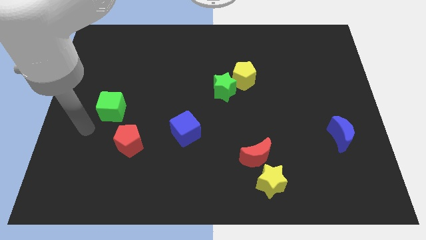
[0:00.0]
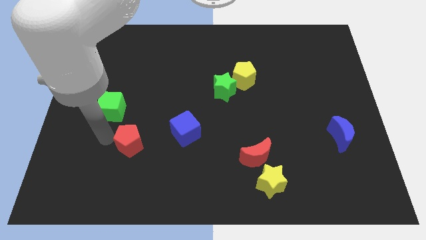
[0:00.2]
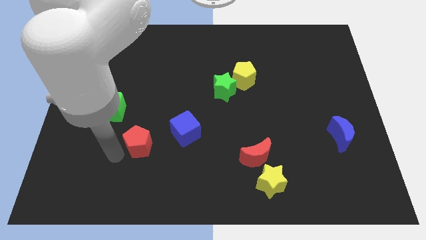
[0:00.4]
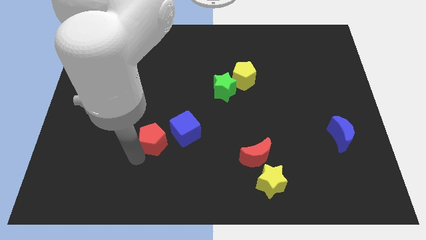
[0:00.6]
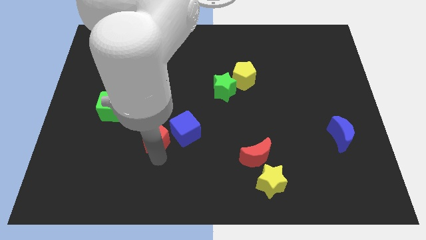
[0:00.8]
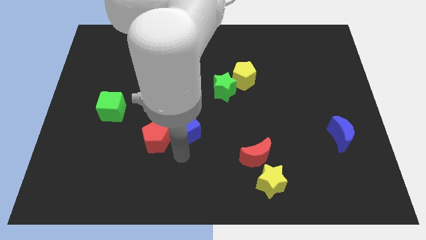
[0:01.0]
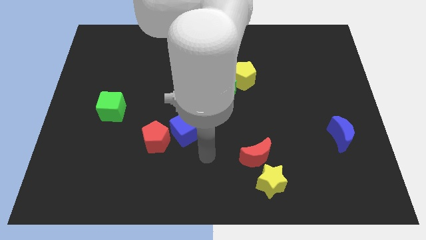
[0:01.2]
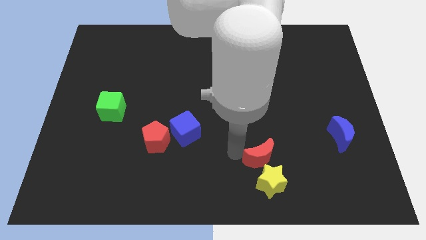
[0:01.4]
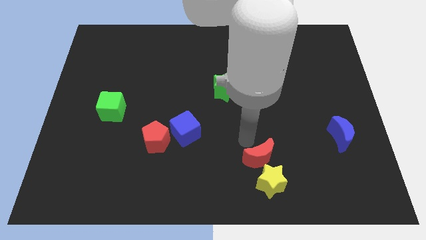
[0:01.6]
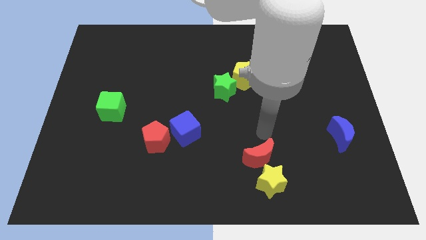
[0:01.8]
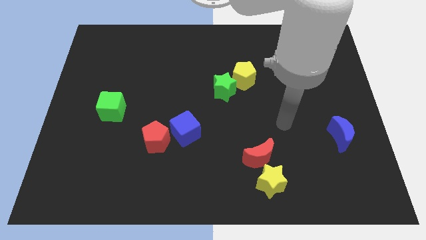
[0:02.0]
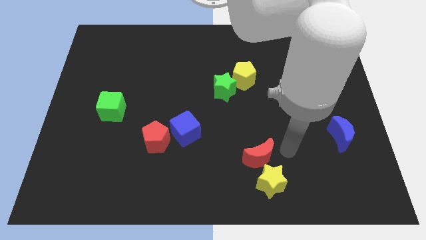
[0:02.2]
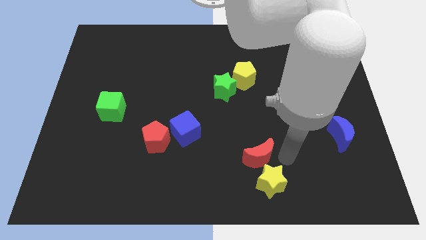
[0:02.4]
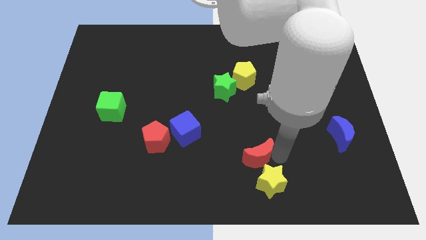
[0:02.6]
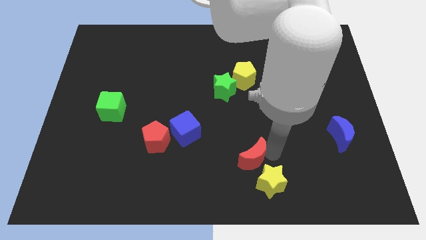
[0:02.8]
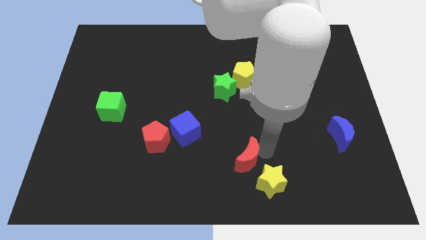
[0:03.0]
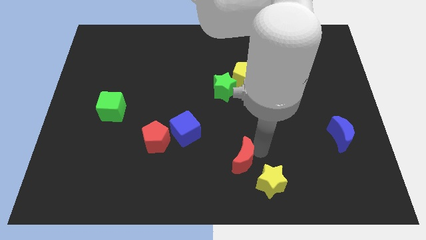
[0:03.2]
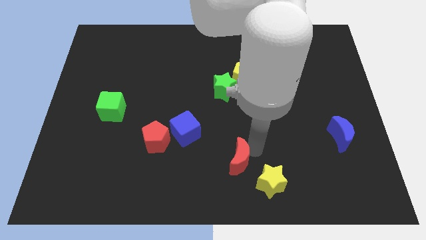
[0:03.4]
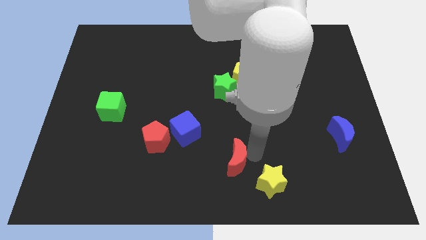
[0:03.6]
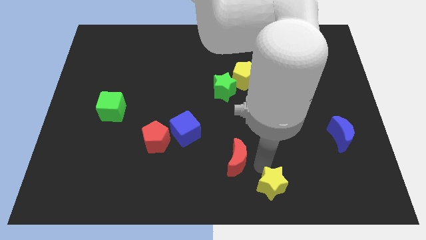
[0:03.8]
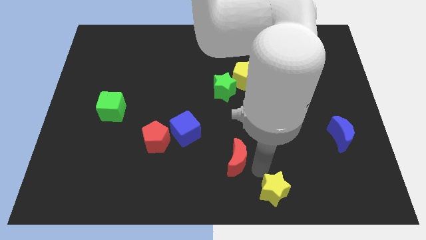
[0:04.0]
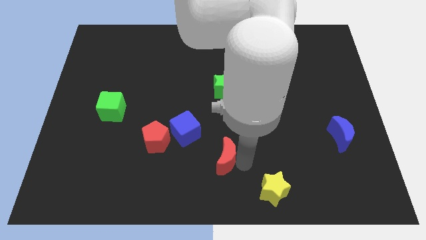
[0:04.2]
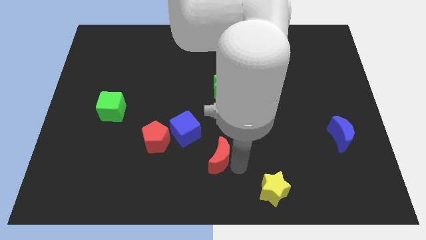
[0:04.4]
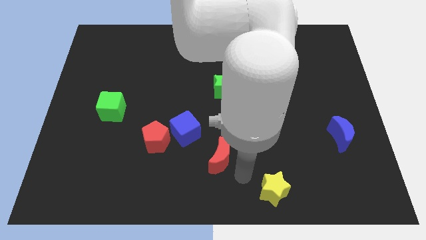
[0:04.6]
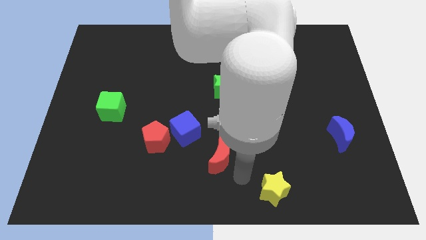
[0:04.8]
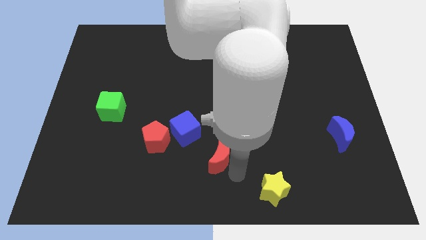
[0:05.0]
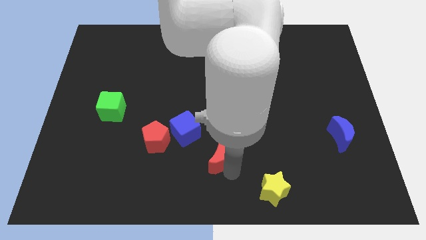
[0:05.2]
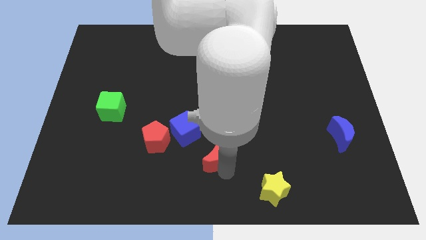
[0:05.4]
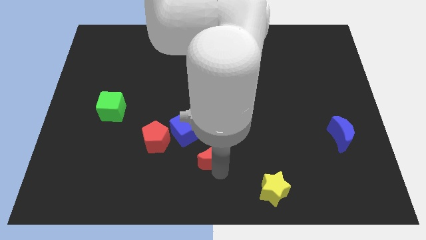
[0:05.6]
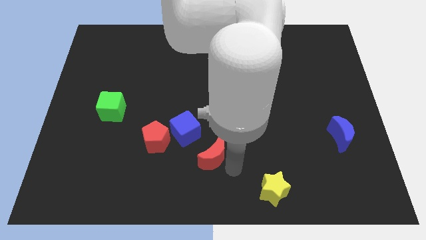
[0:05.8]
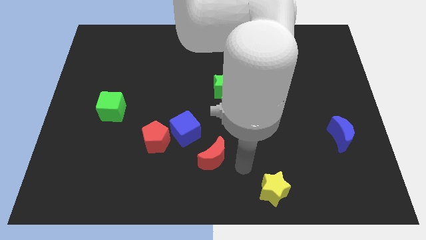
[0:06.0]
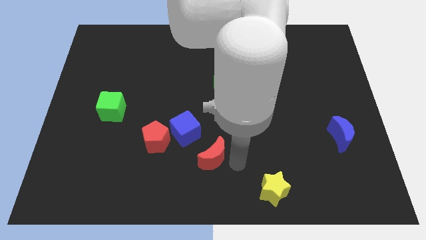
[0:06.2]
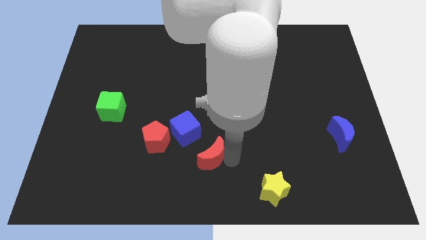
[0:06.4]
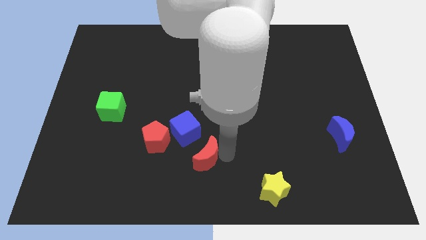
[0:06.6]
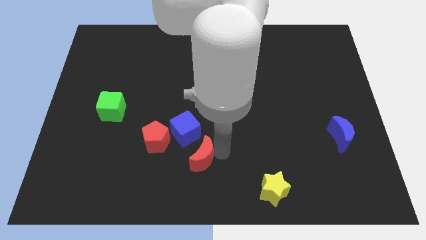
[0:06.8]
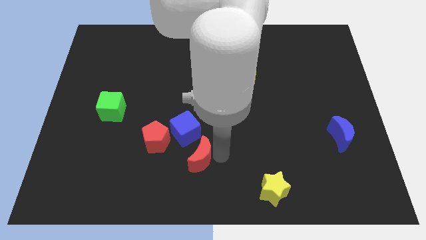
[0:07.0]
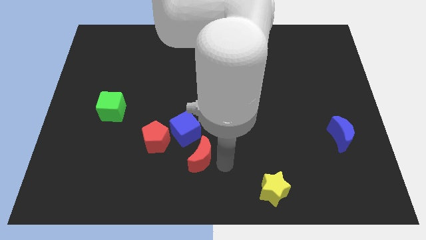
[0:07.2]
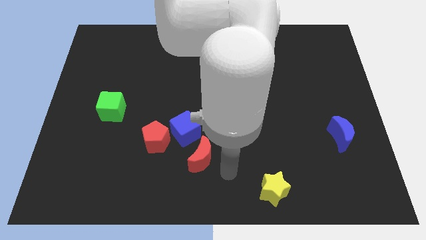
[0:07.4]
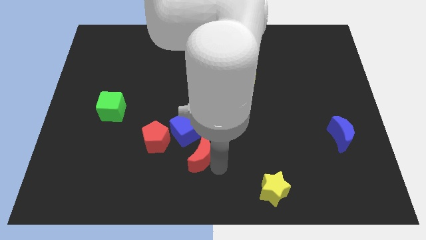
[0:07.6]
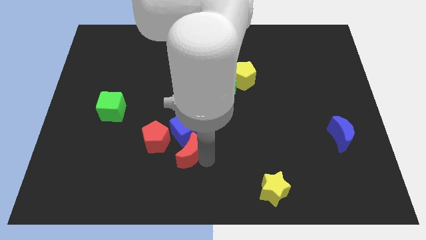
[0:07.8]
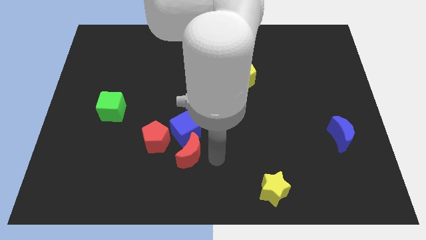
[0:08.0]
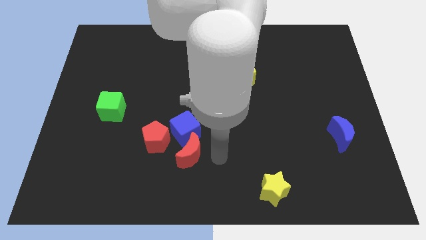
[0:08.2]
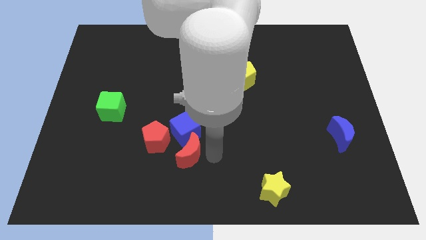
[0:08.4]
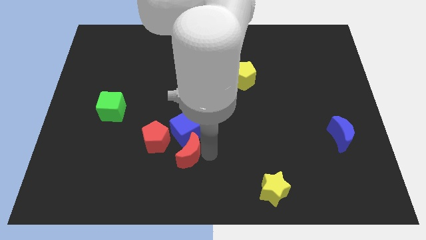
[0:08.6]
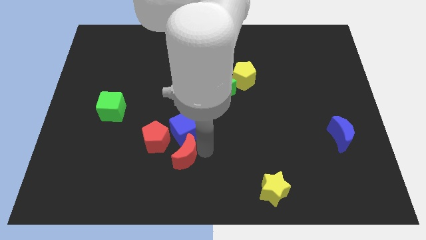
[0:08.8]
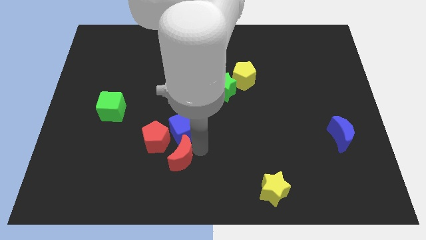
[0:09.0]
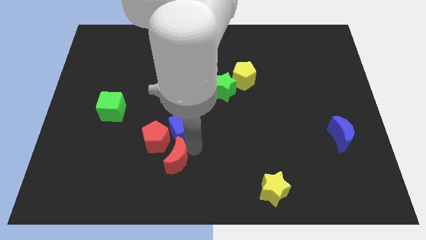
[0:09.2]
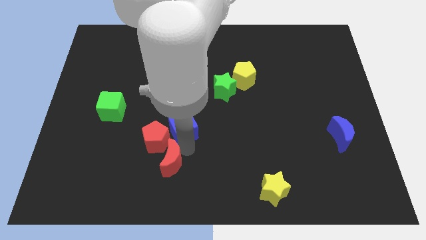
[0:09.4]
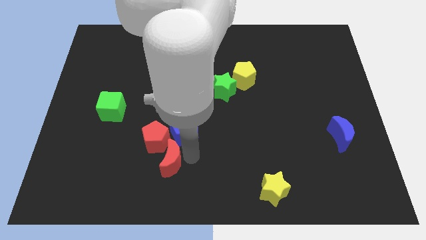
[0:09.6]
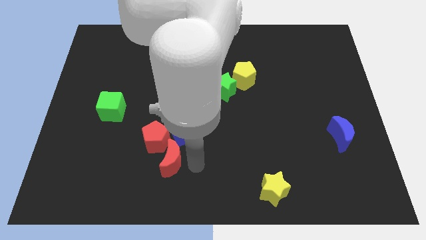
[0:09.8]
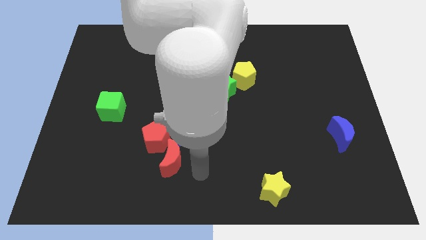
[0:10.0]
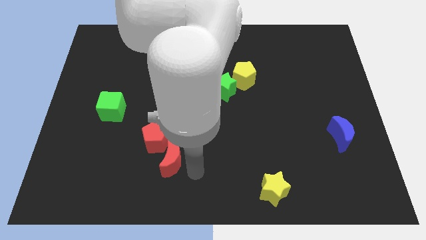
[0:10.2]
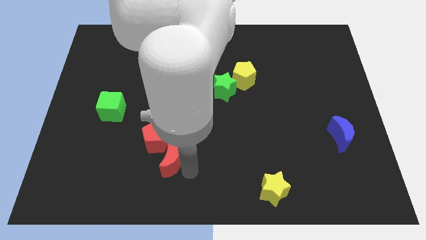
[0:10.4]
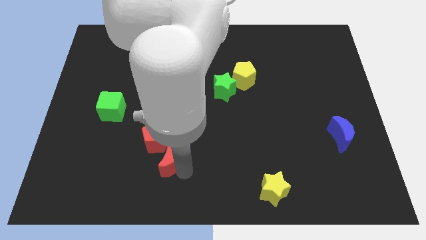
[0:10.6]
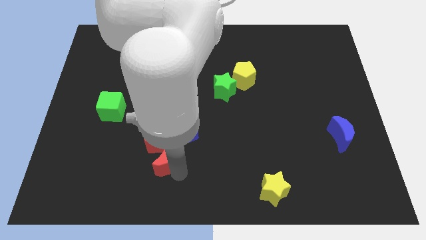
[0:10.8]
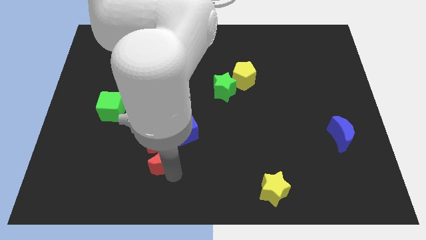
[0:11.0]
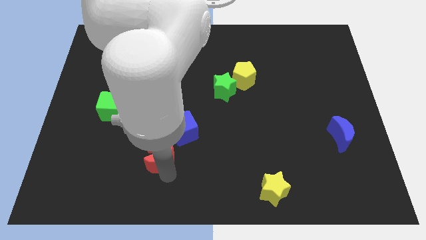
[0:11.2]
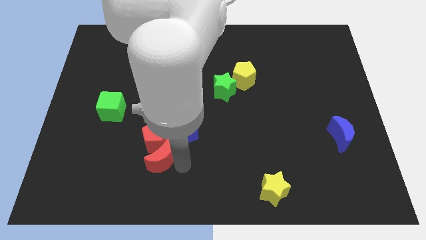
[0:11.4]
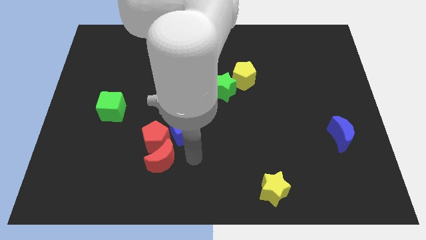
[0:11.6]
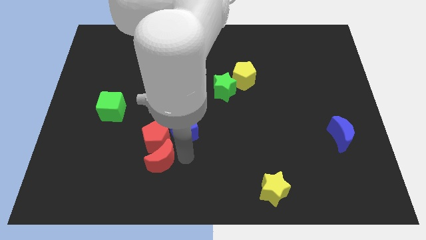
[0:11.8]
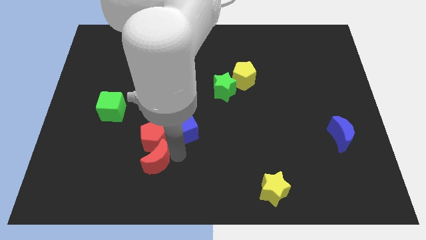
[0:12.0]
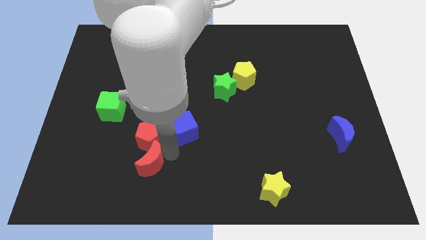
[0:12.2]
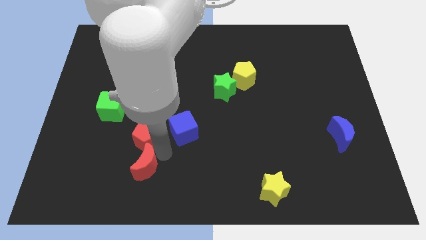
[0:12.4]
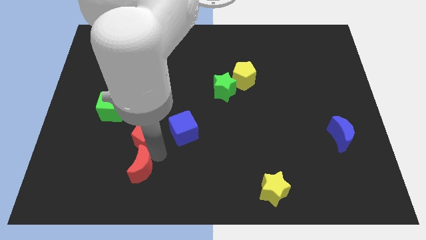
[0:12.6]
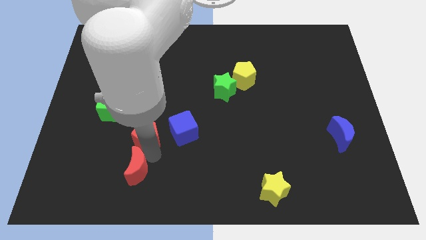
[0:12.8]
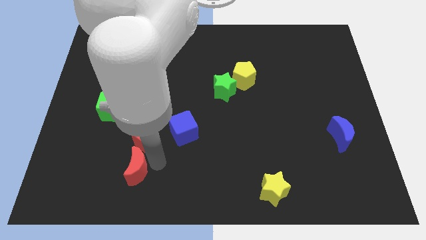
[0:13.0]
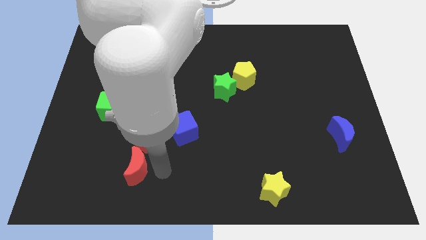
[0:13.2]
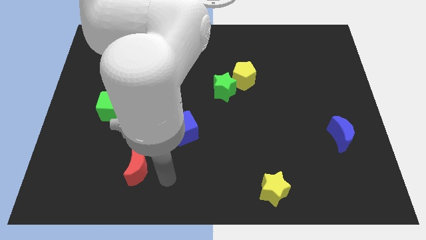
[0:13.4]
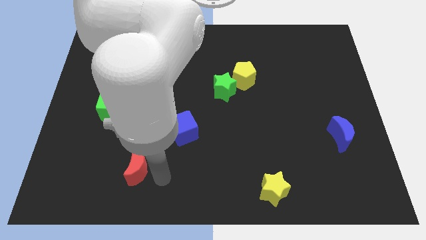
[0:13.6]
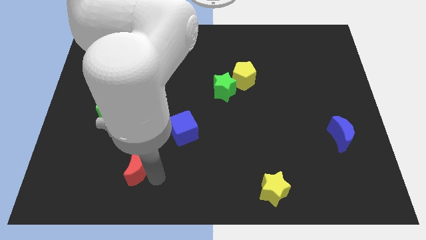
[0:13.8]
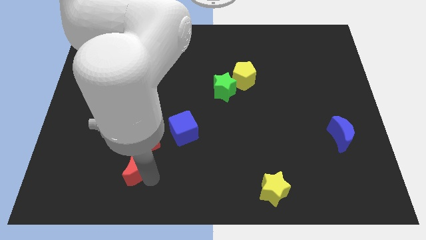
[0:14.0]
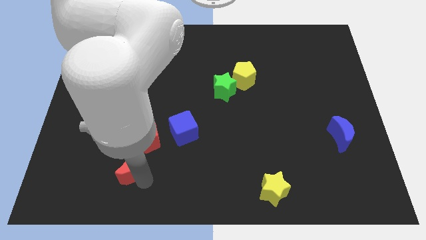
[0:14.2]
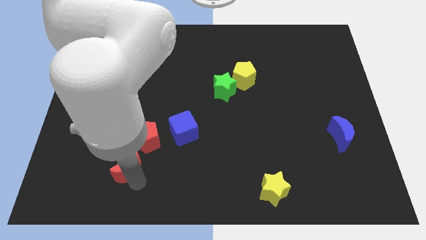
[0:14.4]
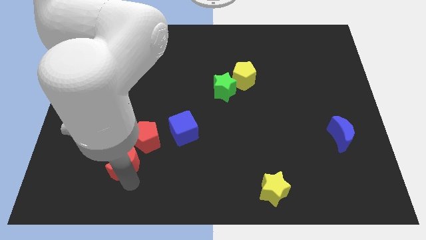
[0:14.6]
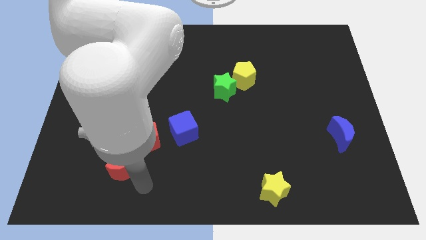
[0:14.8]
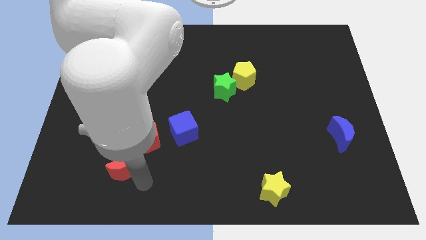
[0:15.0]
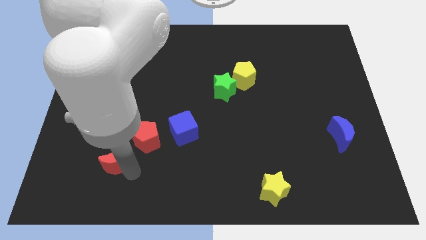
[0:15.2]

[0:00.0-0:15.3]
slide the red moon below the green cube
